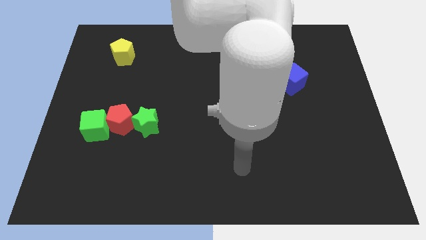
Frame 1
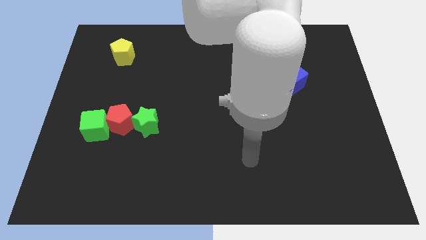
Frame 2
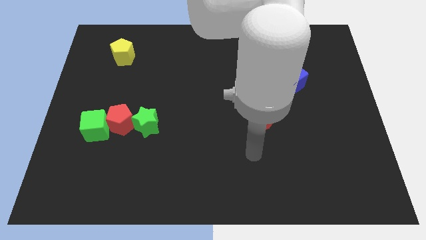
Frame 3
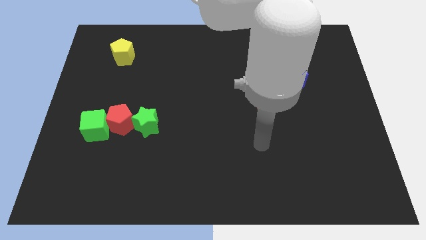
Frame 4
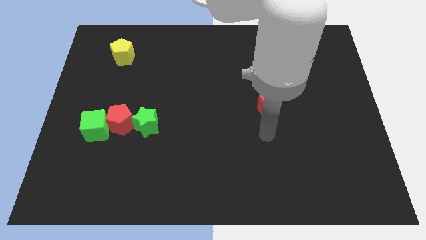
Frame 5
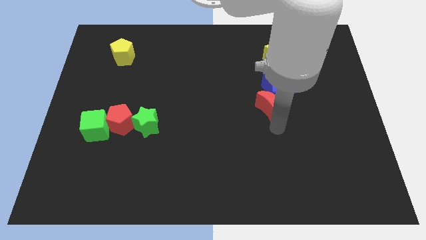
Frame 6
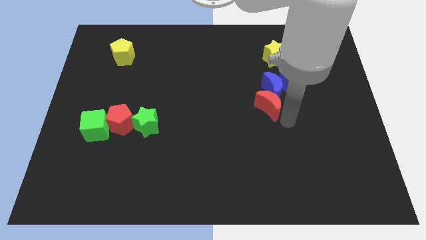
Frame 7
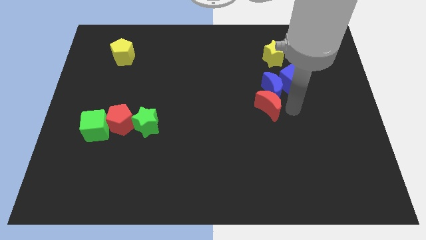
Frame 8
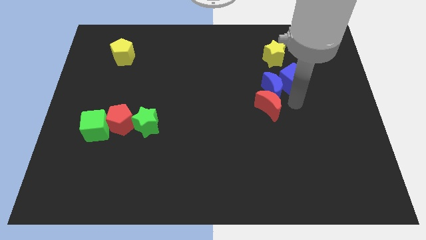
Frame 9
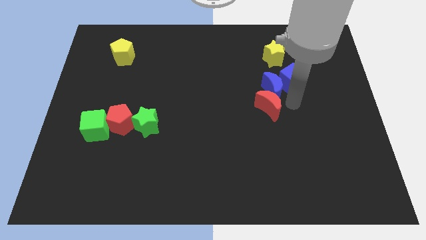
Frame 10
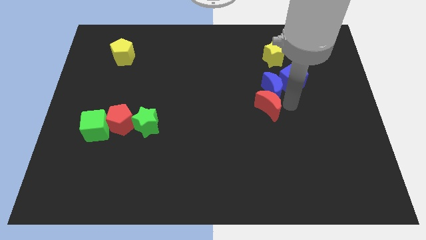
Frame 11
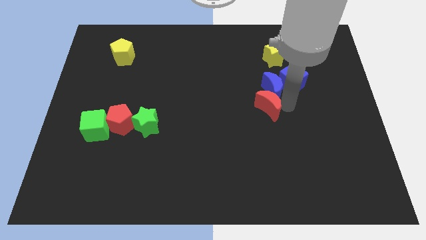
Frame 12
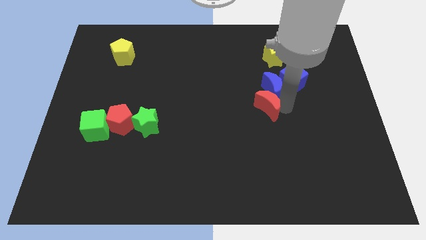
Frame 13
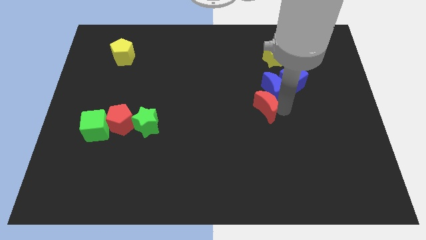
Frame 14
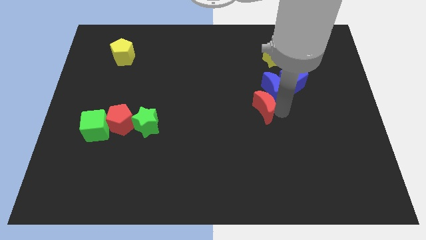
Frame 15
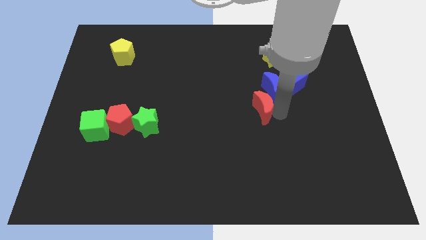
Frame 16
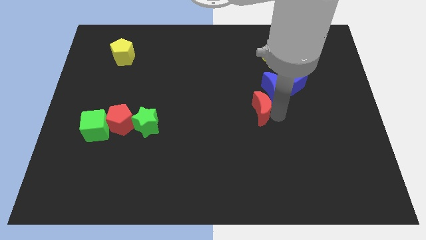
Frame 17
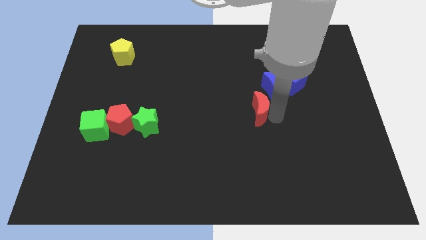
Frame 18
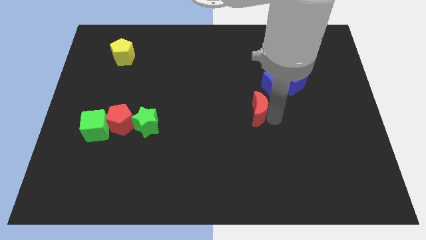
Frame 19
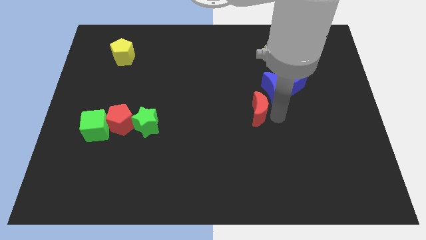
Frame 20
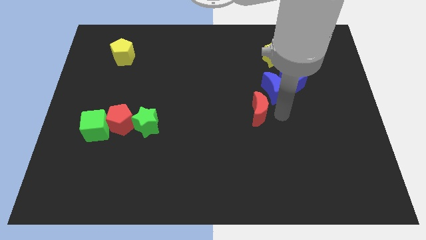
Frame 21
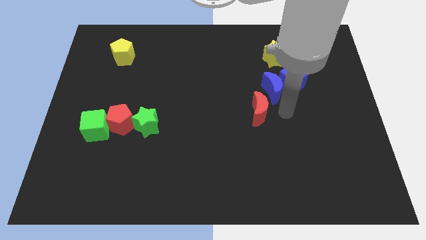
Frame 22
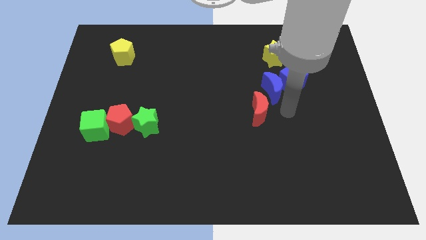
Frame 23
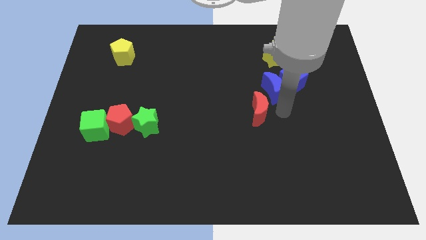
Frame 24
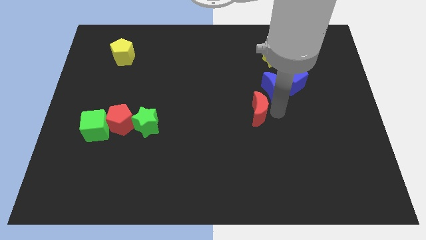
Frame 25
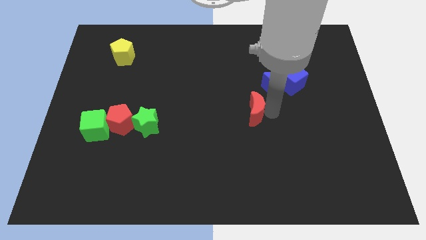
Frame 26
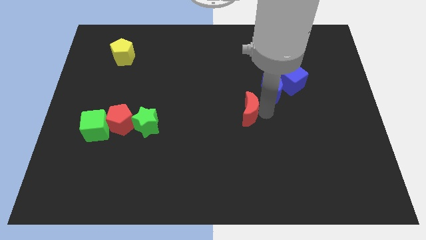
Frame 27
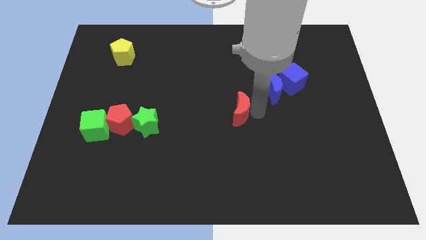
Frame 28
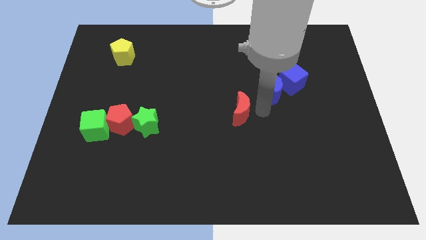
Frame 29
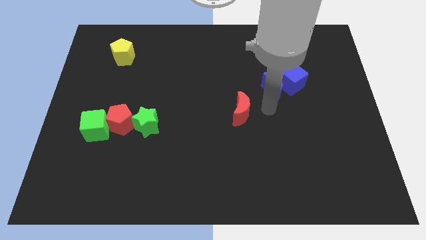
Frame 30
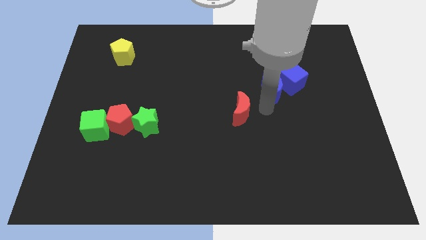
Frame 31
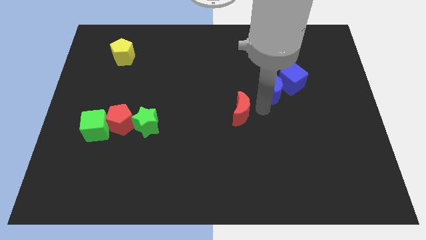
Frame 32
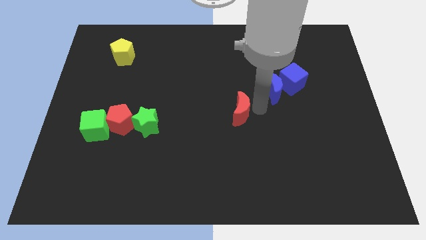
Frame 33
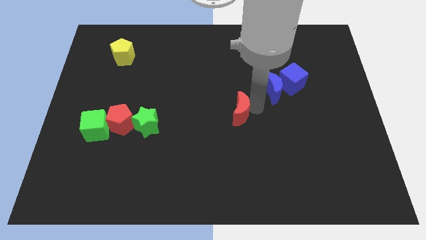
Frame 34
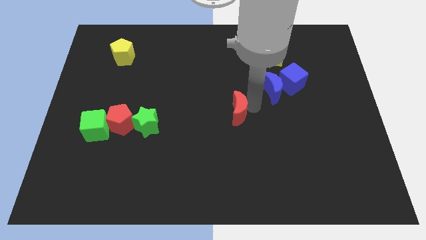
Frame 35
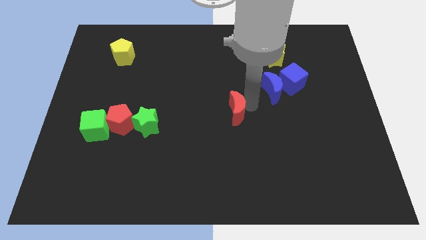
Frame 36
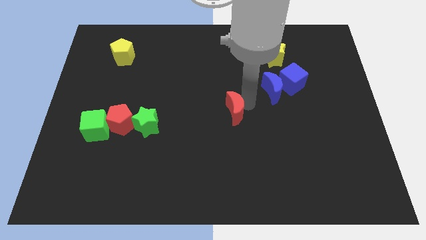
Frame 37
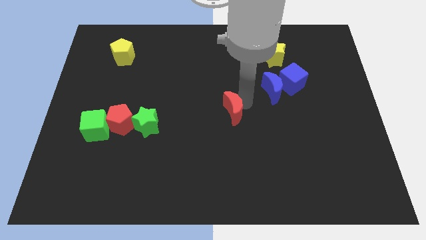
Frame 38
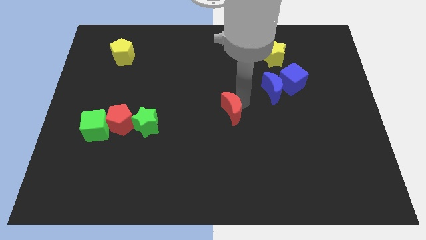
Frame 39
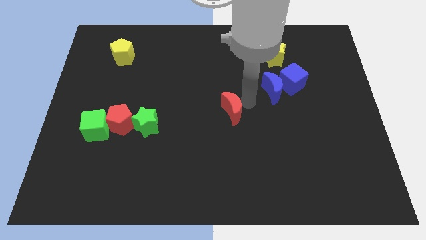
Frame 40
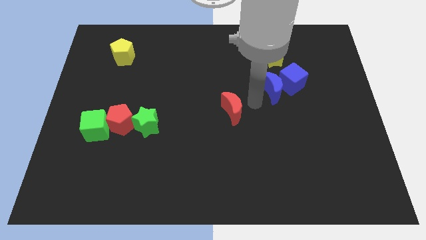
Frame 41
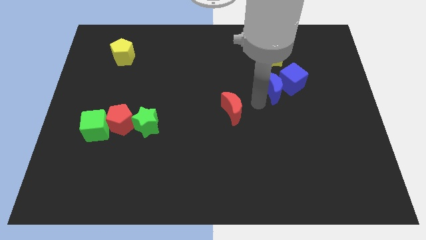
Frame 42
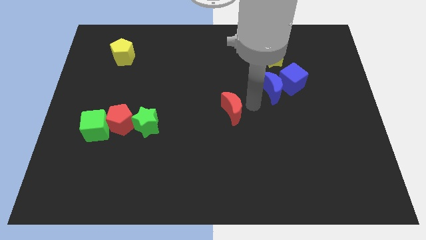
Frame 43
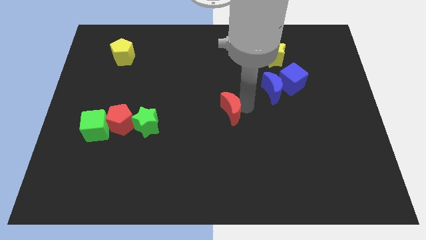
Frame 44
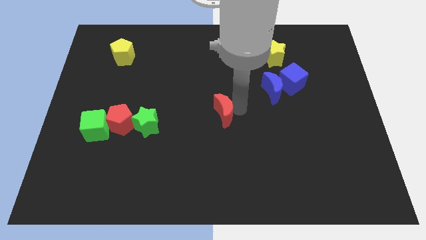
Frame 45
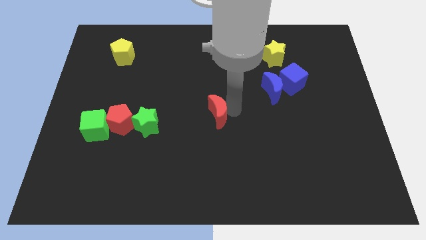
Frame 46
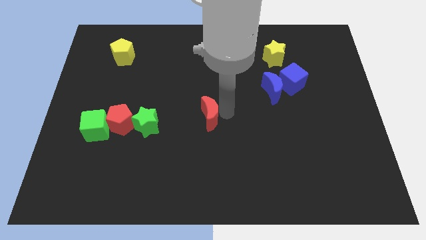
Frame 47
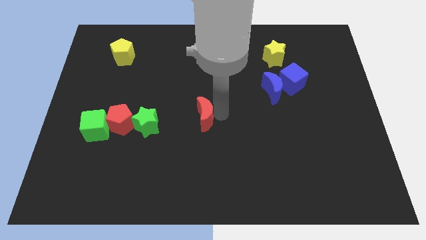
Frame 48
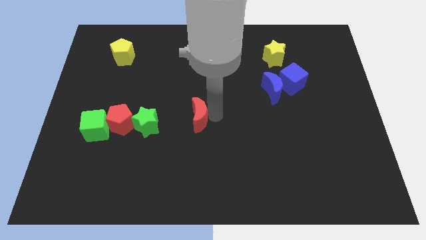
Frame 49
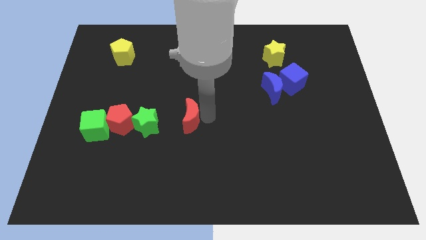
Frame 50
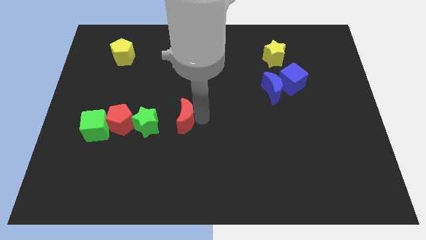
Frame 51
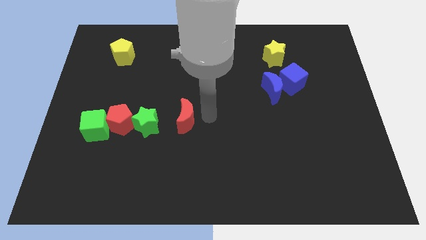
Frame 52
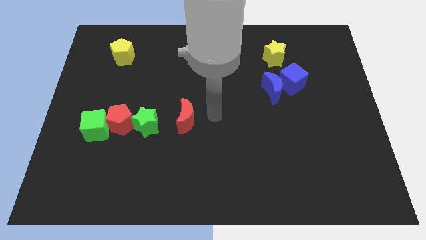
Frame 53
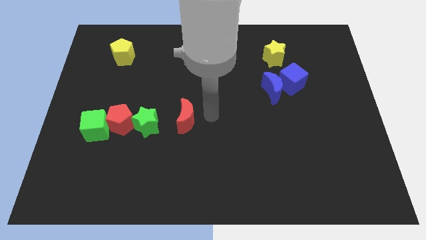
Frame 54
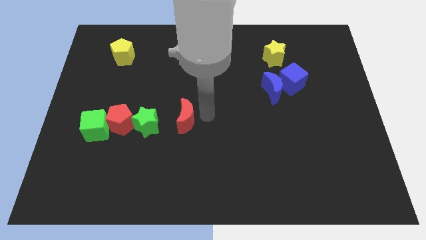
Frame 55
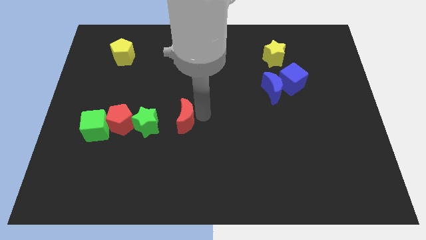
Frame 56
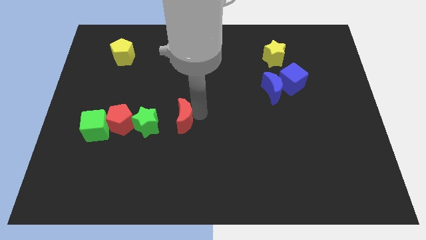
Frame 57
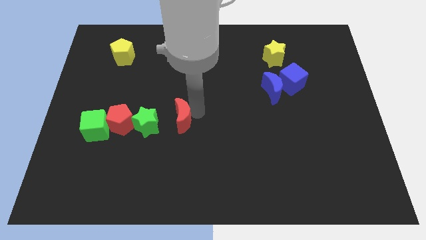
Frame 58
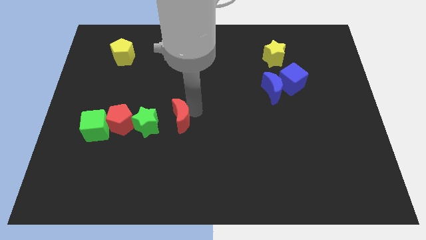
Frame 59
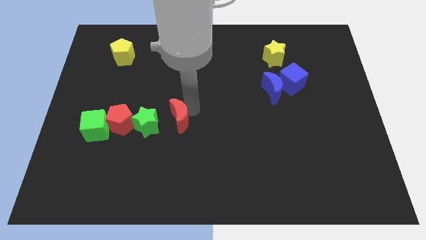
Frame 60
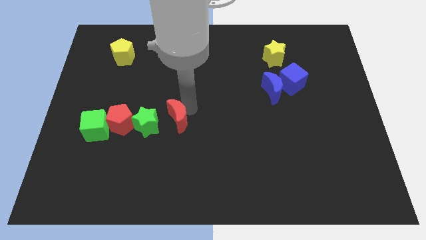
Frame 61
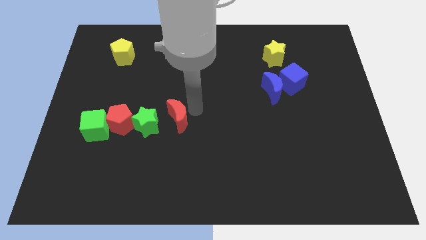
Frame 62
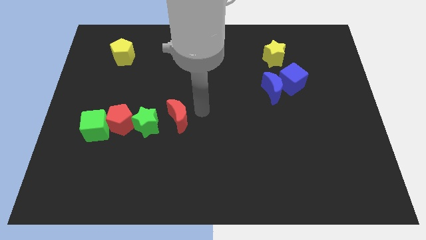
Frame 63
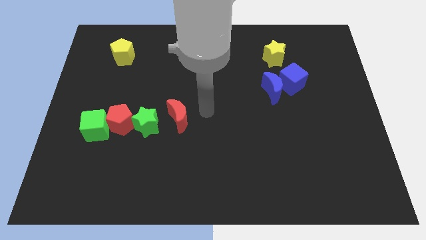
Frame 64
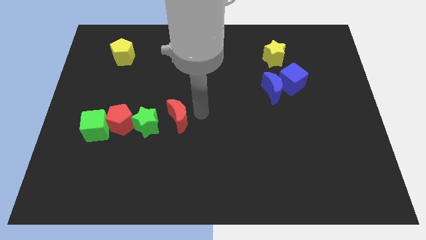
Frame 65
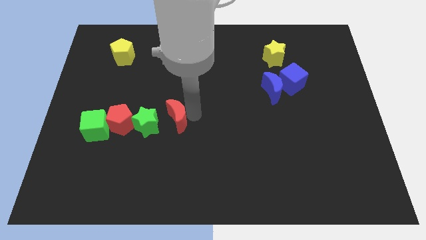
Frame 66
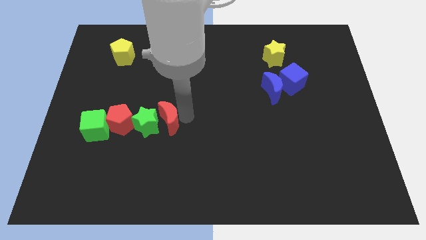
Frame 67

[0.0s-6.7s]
put the red moon to the green star

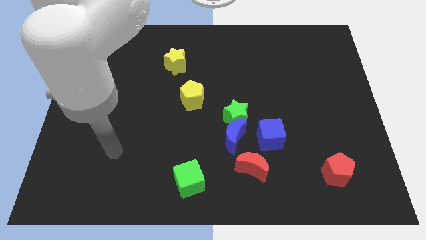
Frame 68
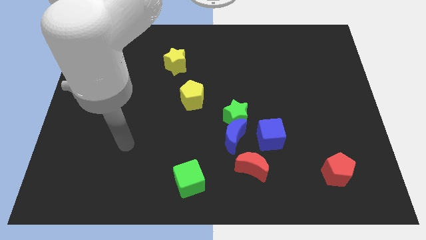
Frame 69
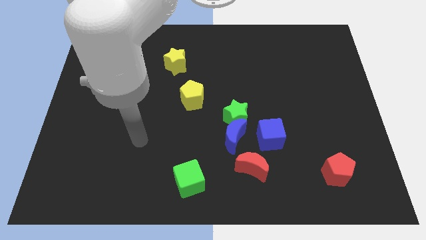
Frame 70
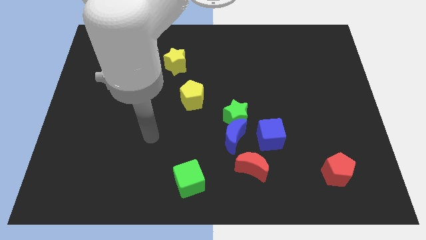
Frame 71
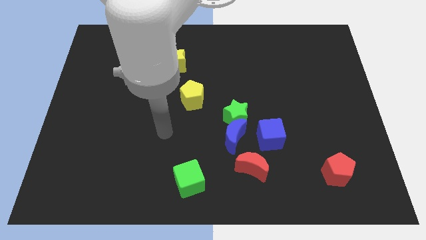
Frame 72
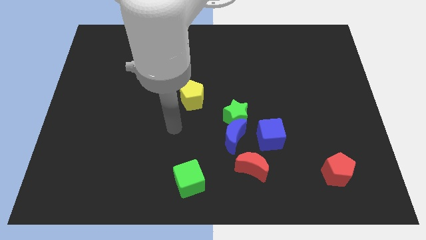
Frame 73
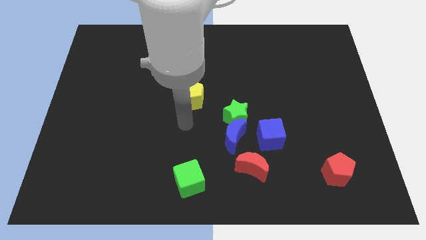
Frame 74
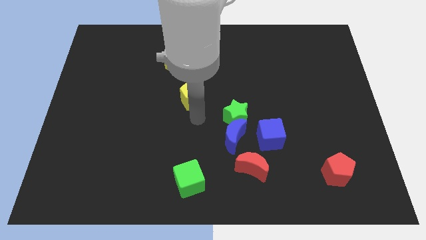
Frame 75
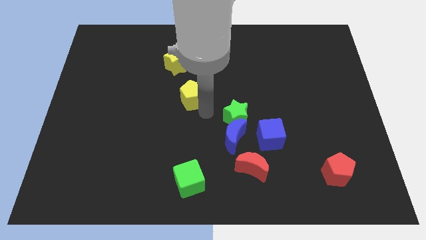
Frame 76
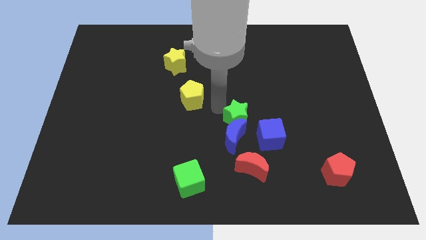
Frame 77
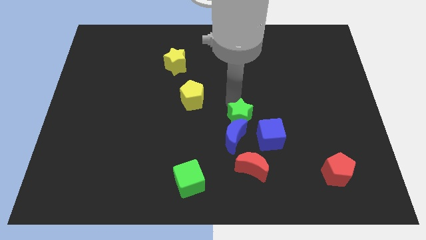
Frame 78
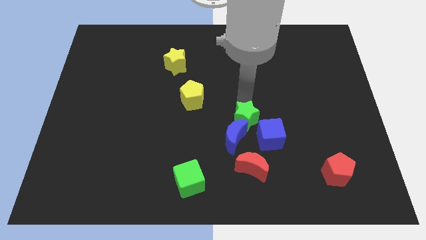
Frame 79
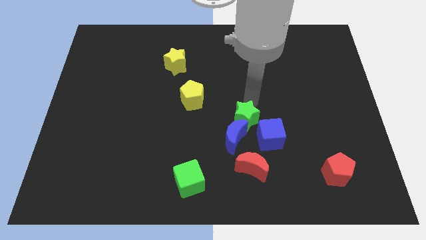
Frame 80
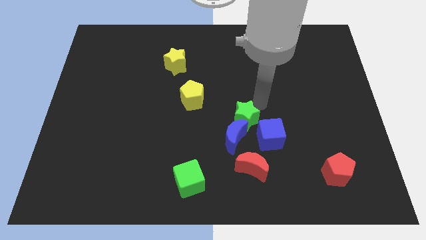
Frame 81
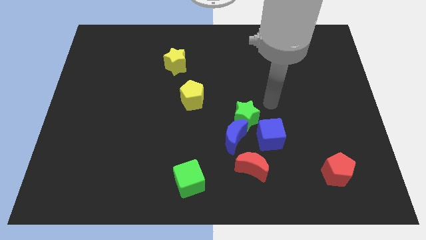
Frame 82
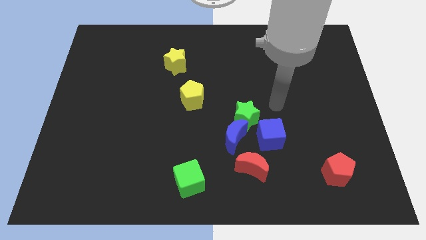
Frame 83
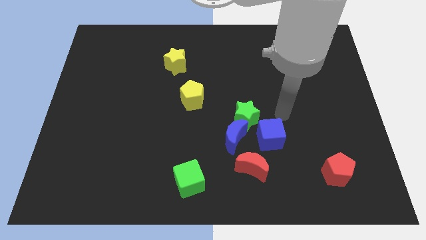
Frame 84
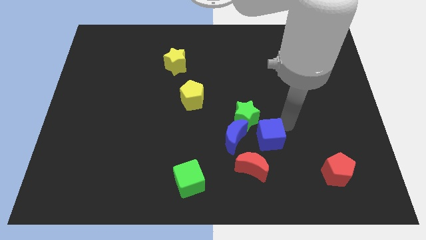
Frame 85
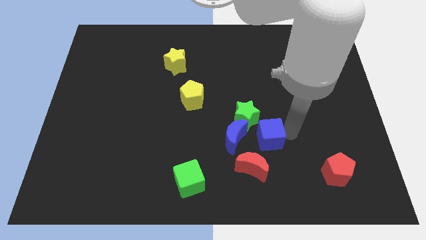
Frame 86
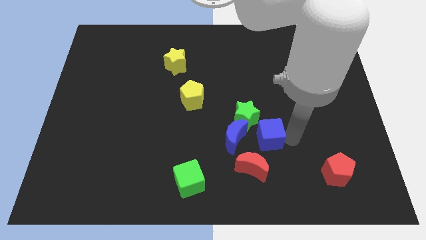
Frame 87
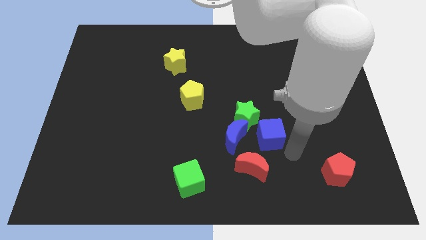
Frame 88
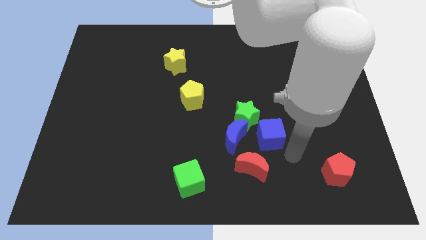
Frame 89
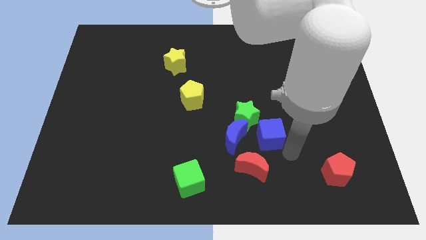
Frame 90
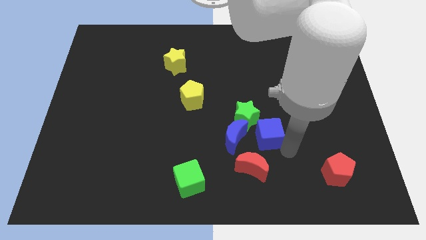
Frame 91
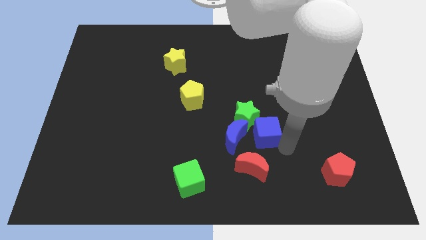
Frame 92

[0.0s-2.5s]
slide the blue cube next to the green star
